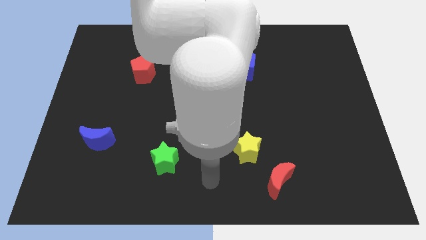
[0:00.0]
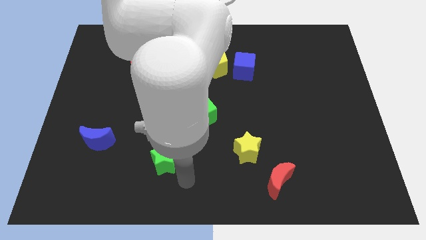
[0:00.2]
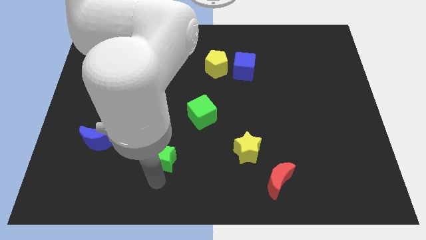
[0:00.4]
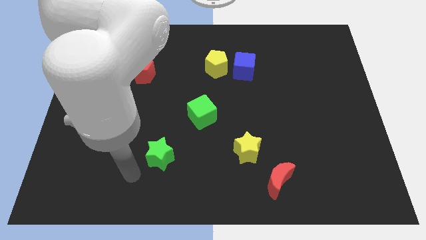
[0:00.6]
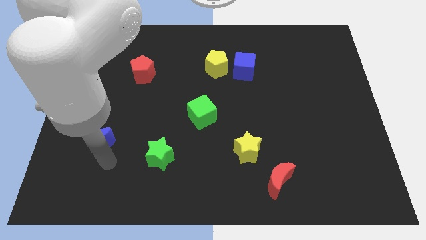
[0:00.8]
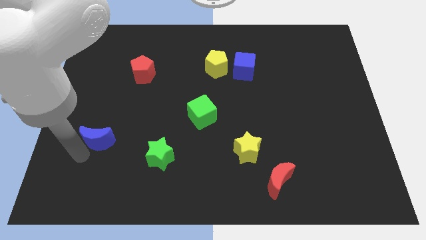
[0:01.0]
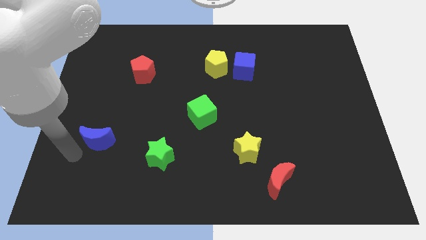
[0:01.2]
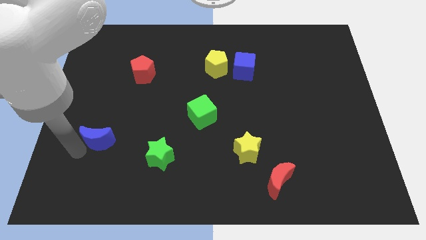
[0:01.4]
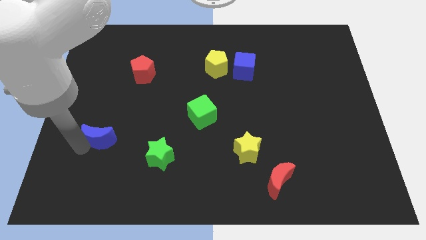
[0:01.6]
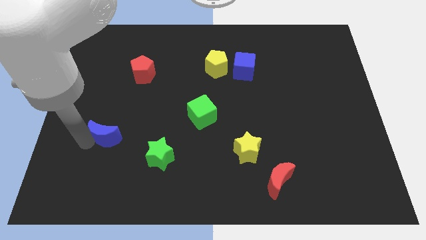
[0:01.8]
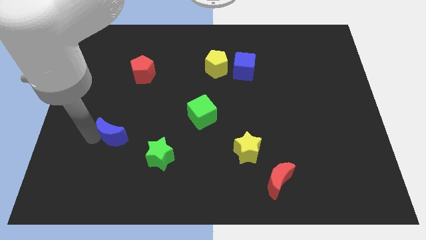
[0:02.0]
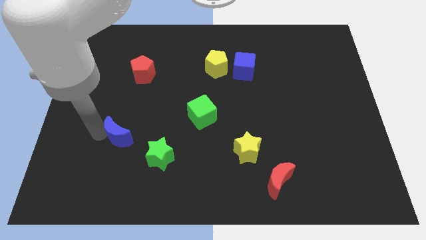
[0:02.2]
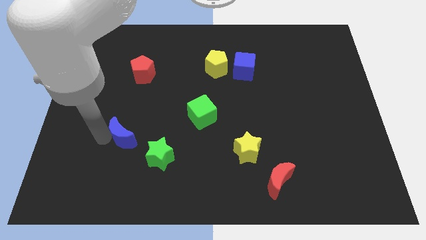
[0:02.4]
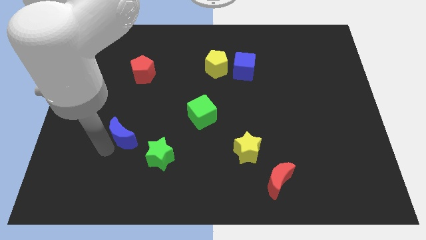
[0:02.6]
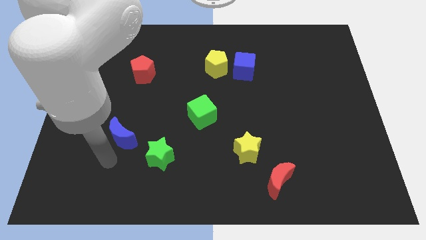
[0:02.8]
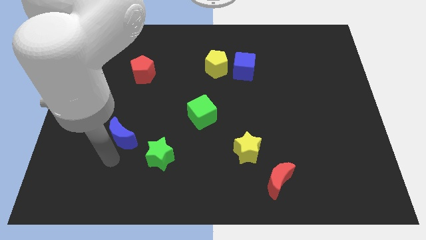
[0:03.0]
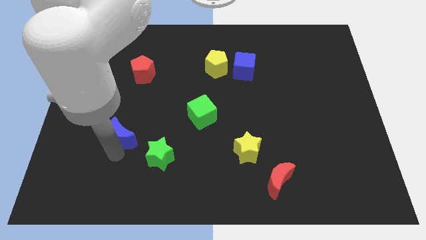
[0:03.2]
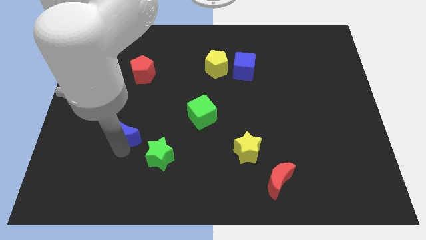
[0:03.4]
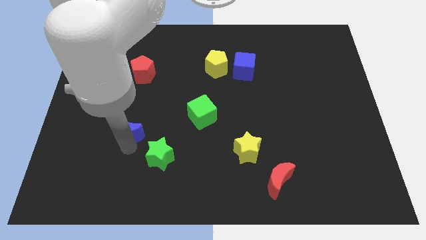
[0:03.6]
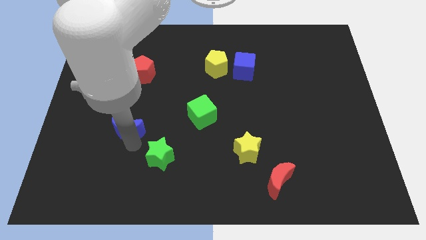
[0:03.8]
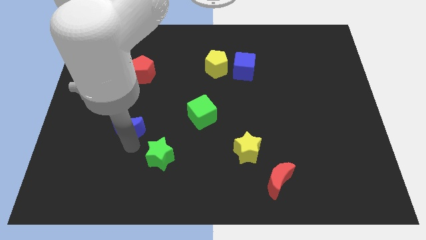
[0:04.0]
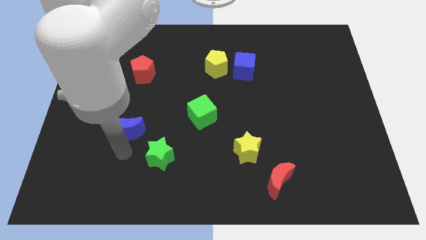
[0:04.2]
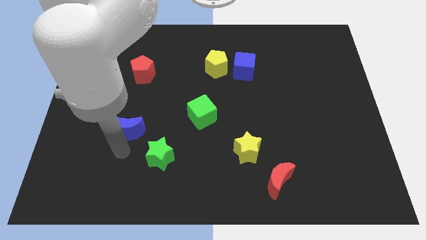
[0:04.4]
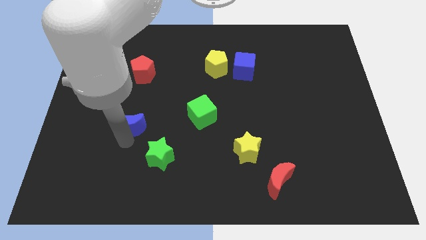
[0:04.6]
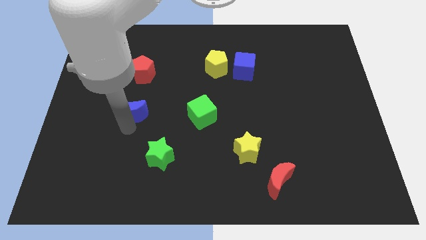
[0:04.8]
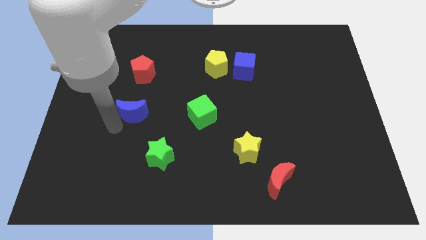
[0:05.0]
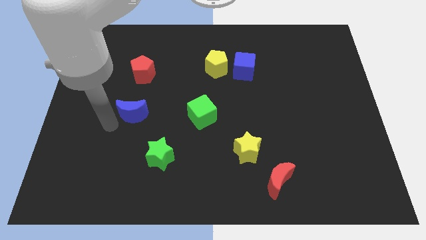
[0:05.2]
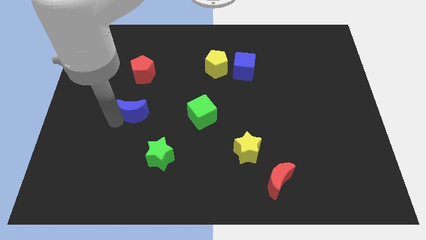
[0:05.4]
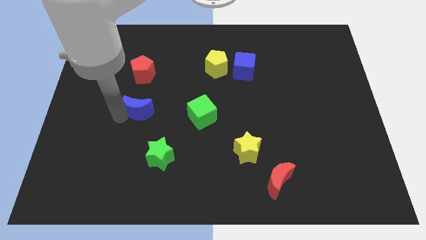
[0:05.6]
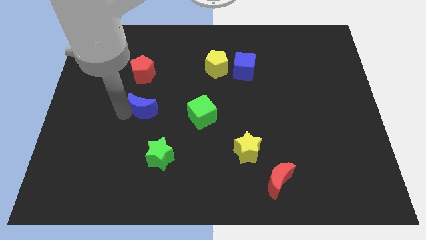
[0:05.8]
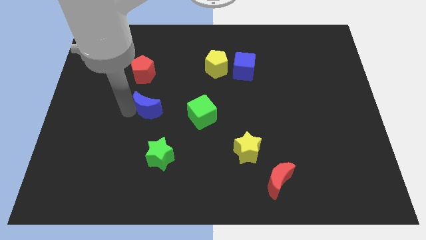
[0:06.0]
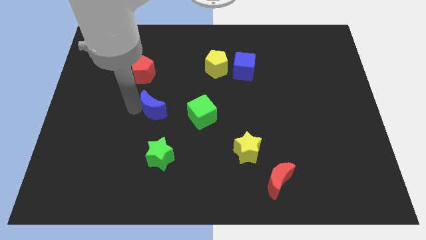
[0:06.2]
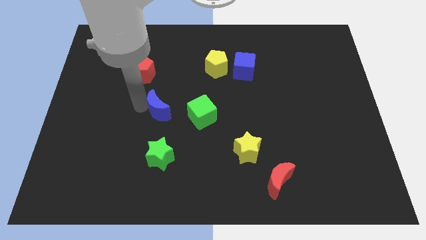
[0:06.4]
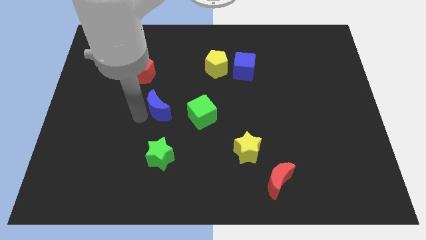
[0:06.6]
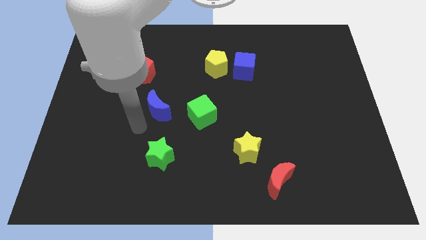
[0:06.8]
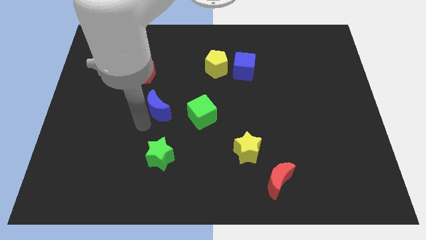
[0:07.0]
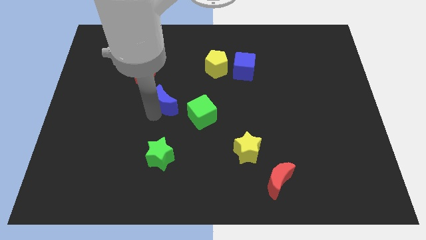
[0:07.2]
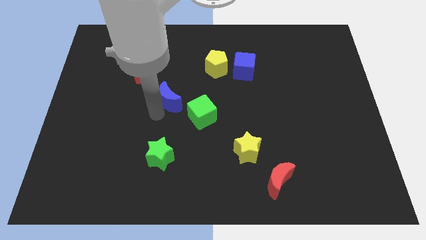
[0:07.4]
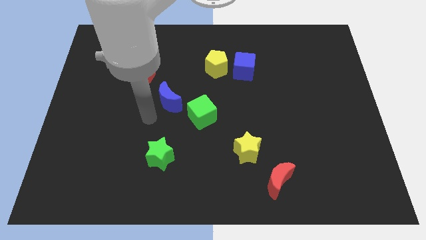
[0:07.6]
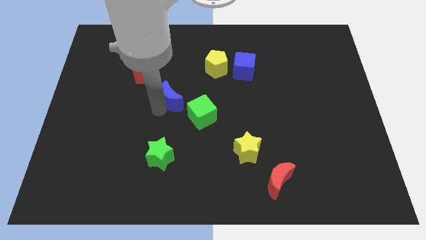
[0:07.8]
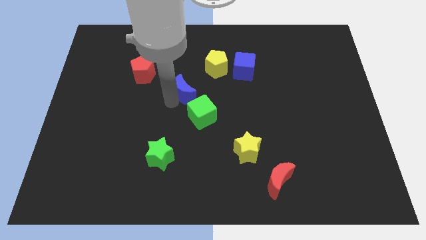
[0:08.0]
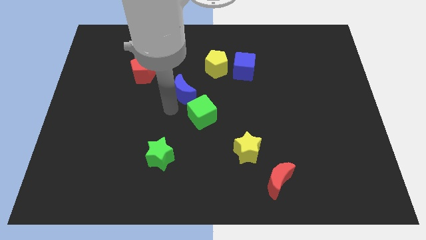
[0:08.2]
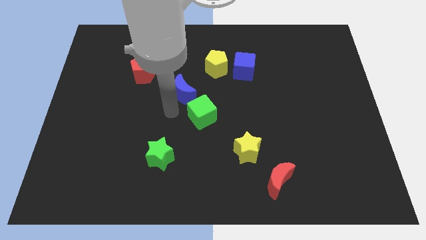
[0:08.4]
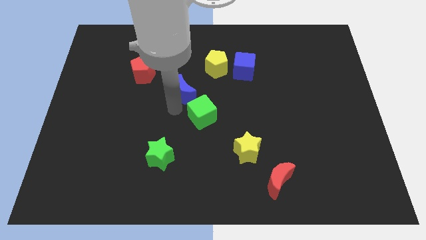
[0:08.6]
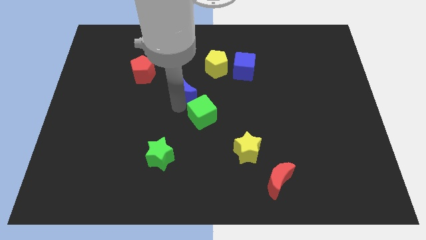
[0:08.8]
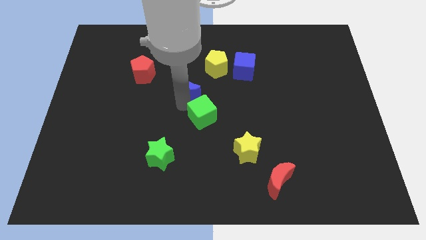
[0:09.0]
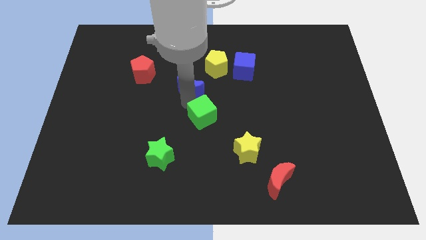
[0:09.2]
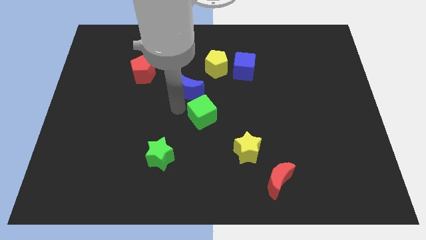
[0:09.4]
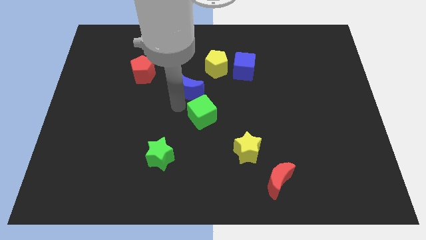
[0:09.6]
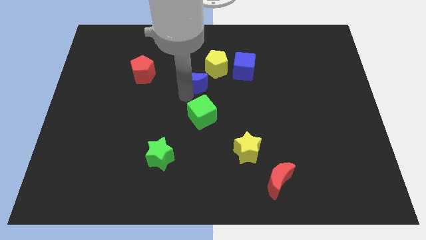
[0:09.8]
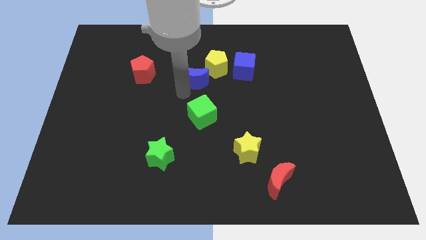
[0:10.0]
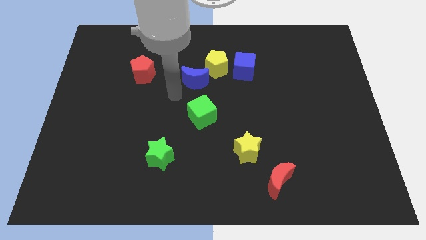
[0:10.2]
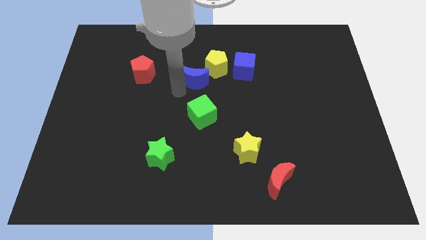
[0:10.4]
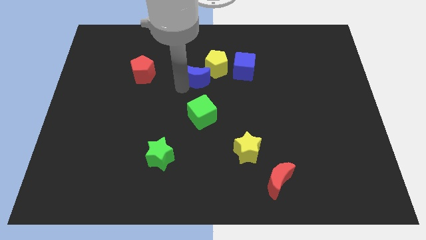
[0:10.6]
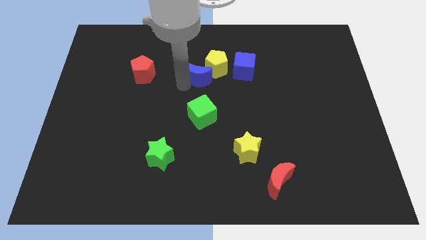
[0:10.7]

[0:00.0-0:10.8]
slide the blue moon to the yellow pentagon

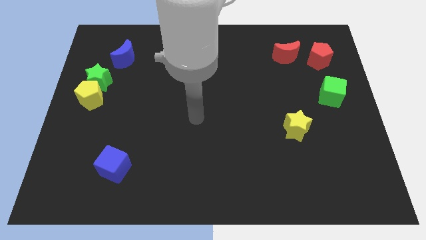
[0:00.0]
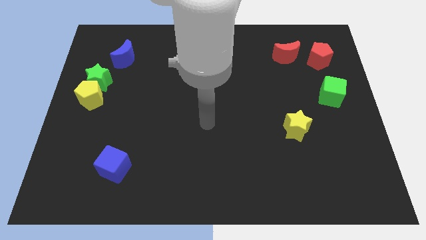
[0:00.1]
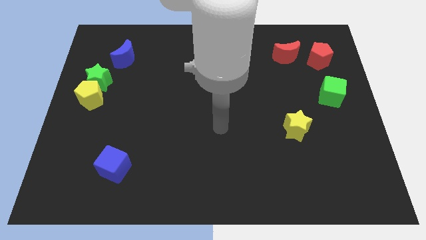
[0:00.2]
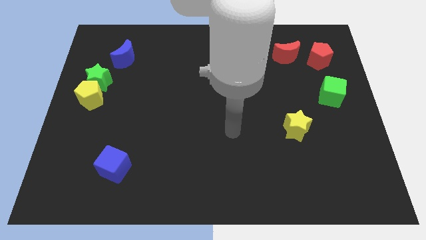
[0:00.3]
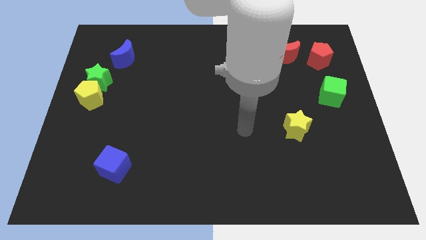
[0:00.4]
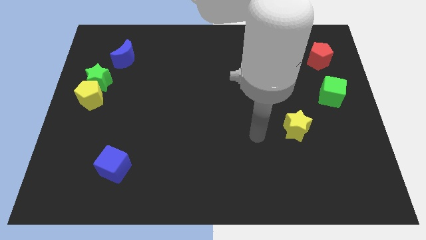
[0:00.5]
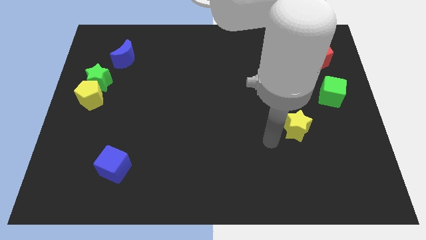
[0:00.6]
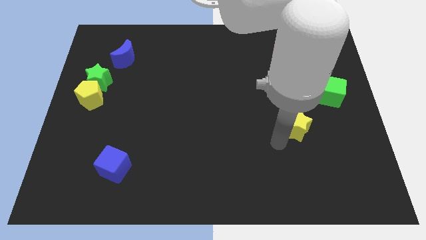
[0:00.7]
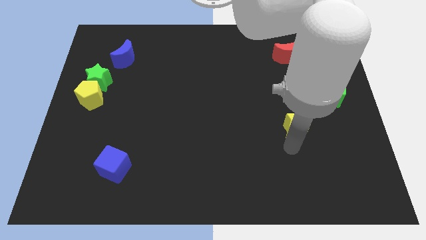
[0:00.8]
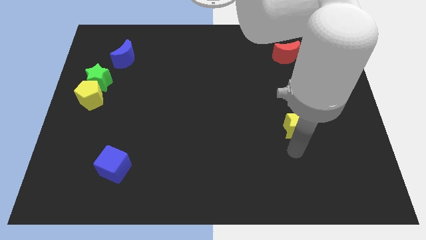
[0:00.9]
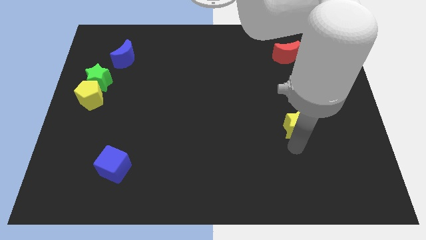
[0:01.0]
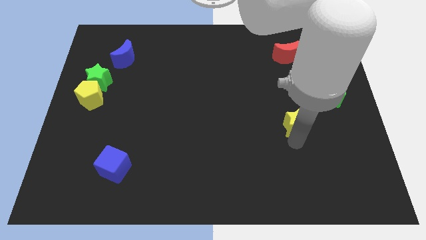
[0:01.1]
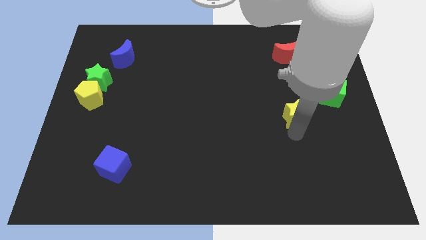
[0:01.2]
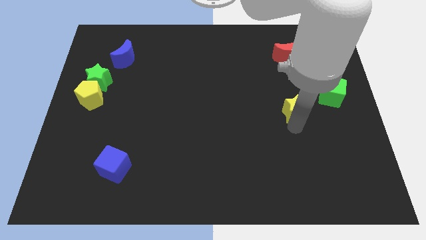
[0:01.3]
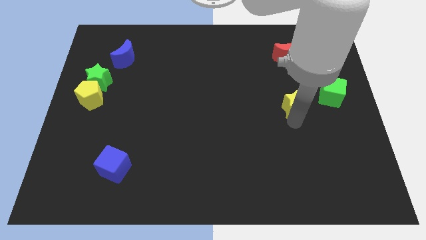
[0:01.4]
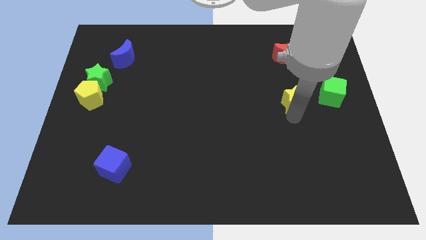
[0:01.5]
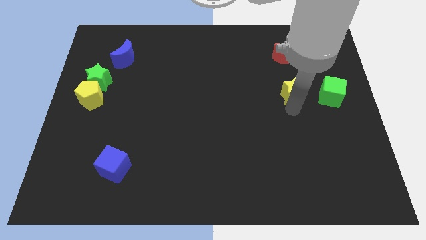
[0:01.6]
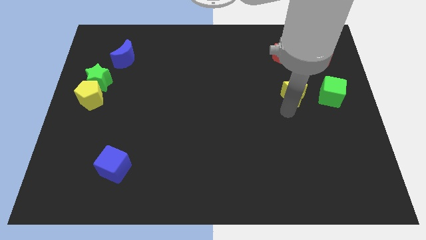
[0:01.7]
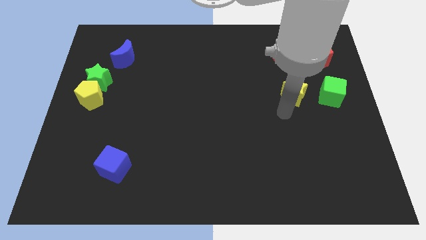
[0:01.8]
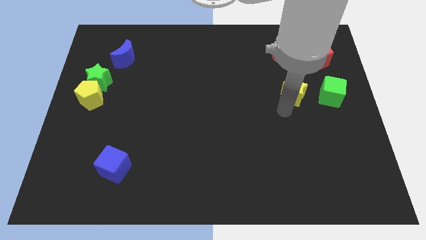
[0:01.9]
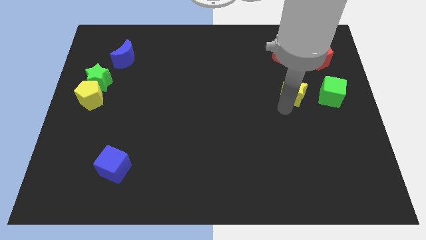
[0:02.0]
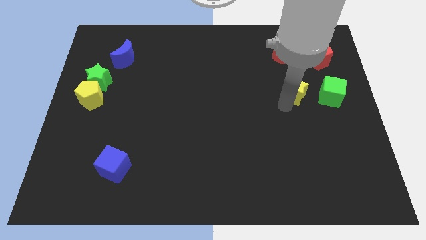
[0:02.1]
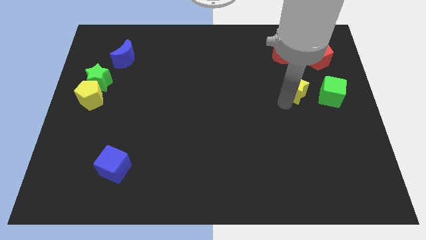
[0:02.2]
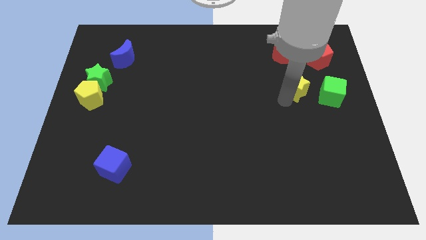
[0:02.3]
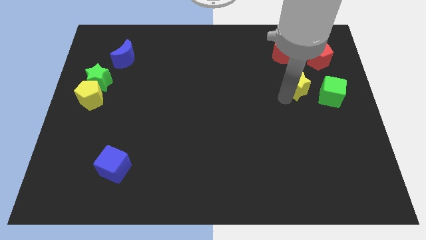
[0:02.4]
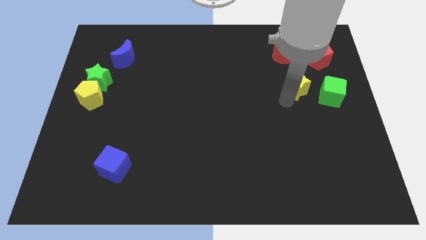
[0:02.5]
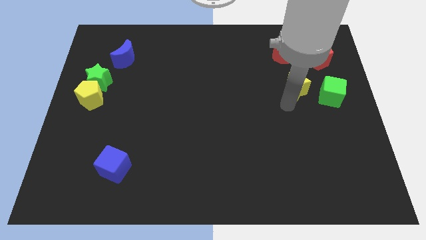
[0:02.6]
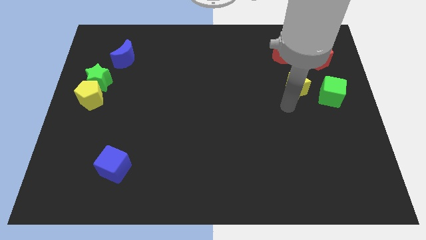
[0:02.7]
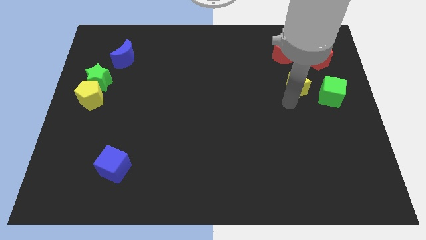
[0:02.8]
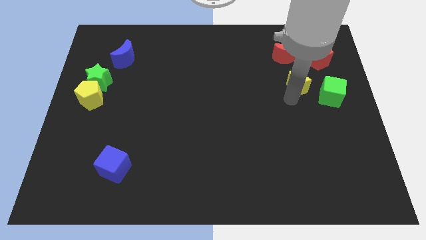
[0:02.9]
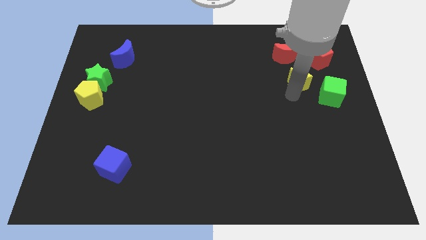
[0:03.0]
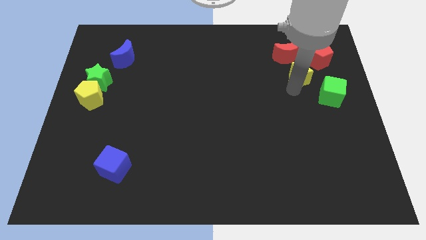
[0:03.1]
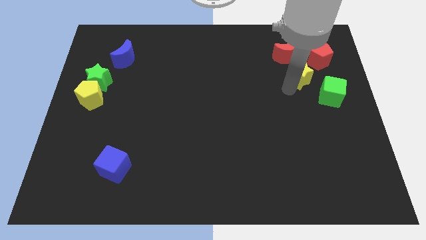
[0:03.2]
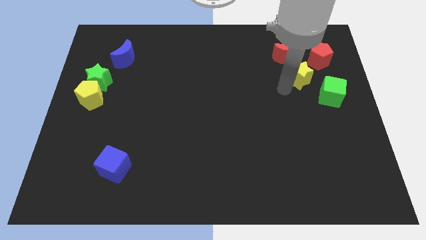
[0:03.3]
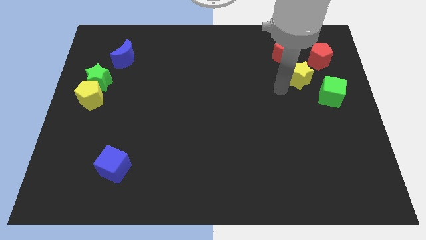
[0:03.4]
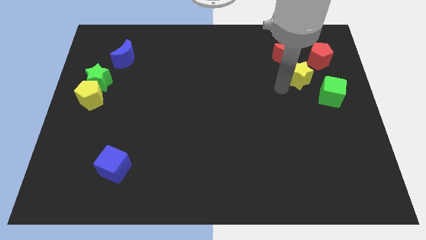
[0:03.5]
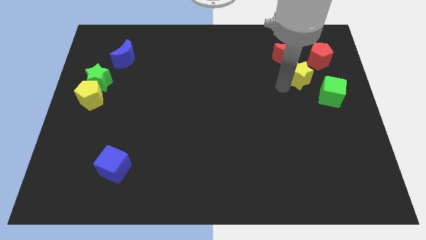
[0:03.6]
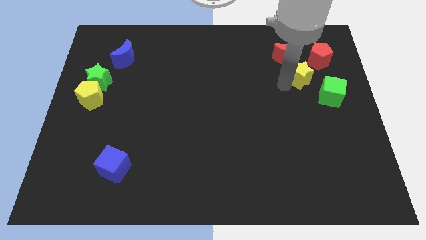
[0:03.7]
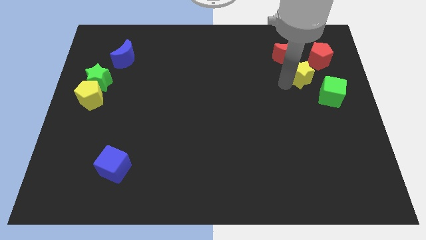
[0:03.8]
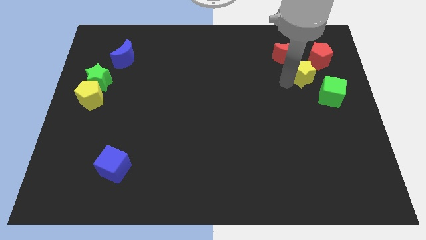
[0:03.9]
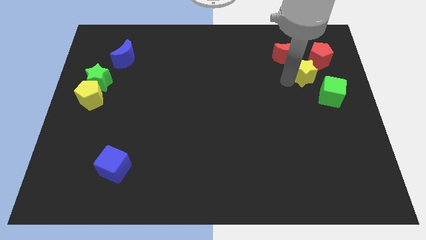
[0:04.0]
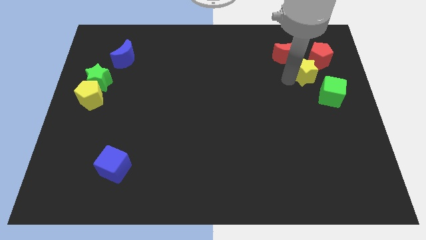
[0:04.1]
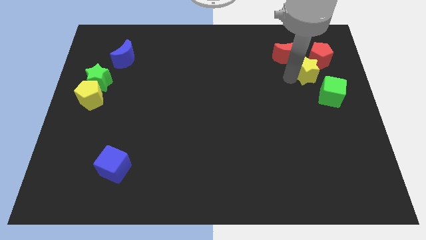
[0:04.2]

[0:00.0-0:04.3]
slide the yellow star to the red pentagon
